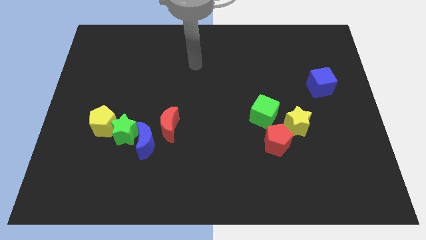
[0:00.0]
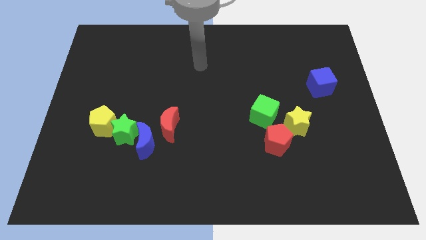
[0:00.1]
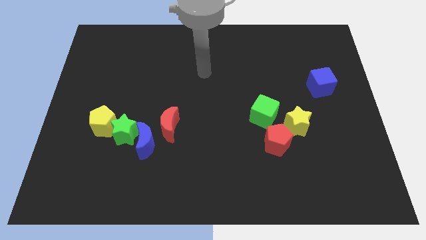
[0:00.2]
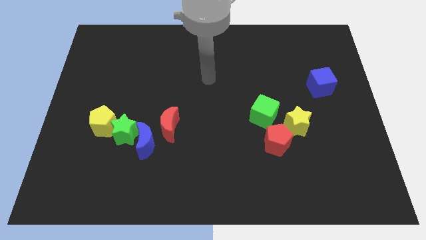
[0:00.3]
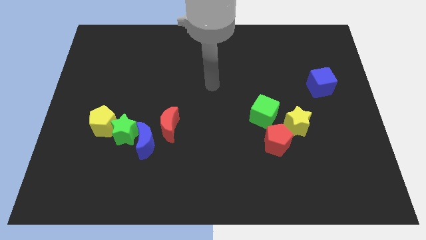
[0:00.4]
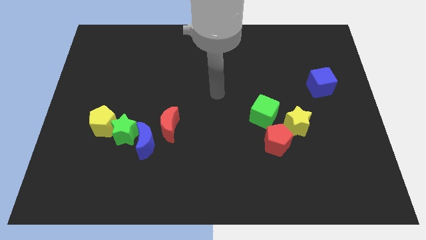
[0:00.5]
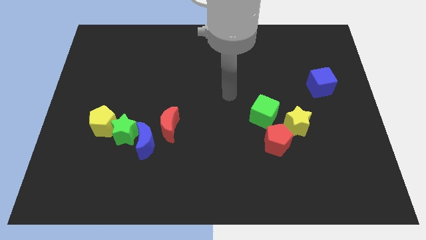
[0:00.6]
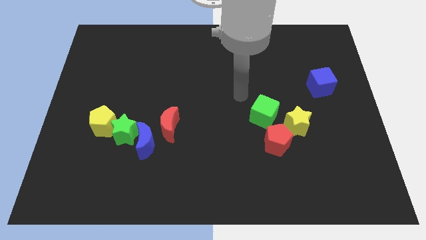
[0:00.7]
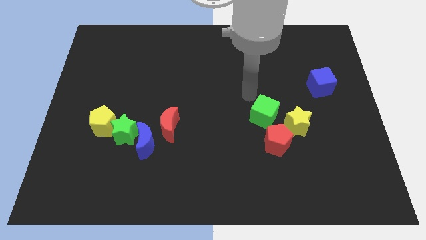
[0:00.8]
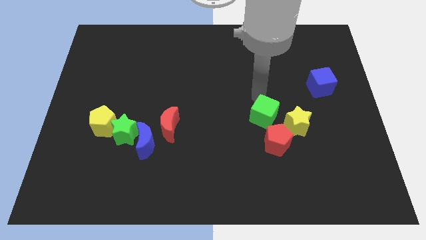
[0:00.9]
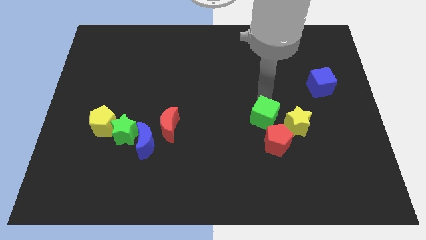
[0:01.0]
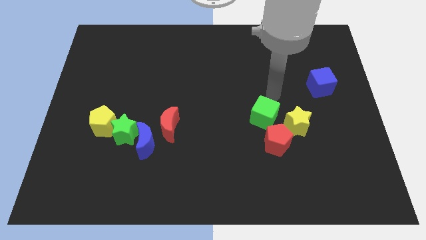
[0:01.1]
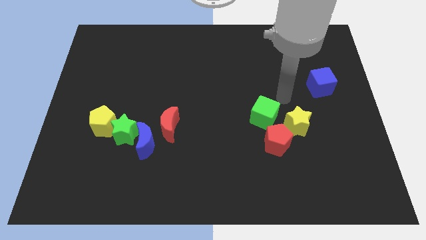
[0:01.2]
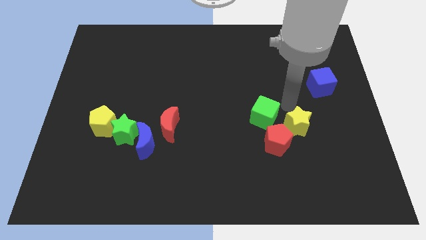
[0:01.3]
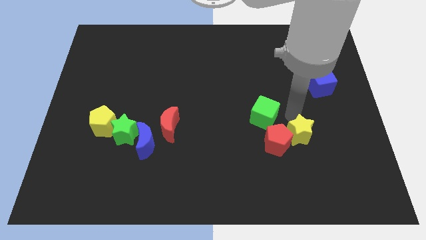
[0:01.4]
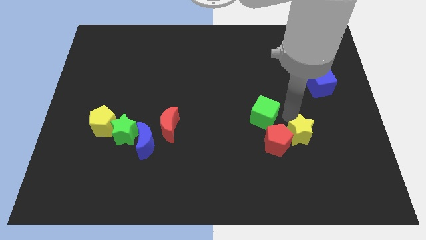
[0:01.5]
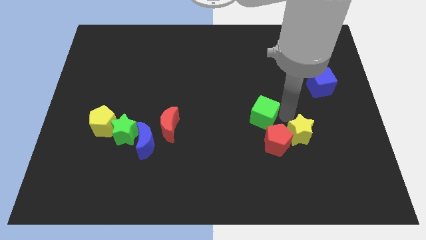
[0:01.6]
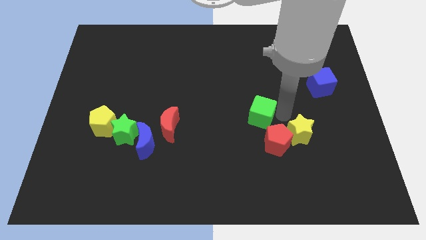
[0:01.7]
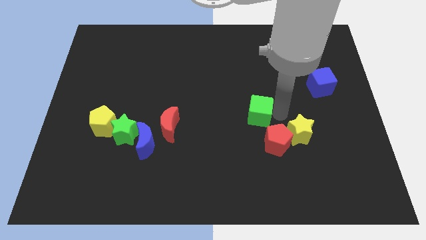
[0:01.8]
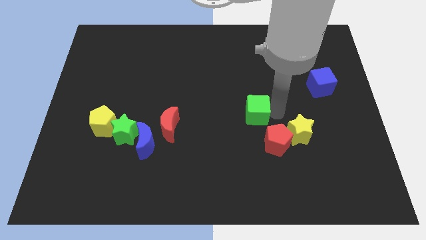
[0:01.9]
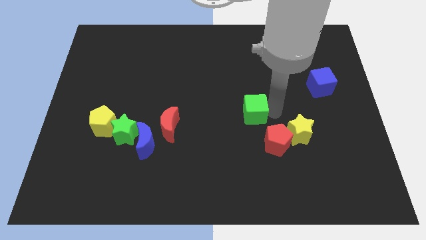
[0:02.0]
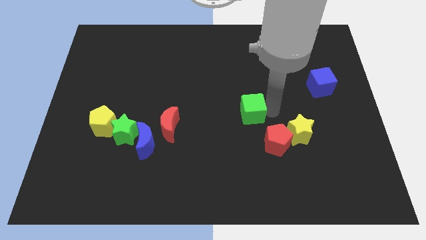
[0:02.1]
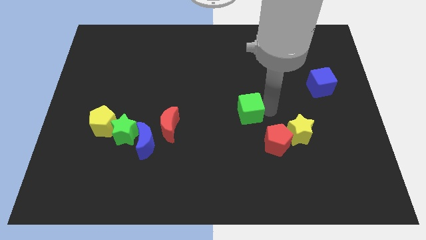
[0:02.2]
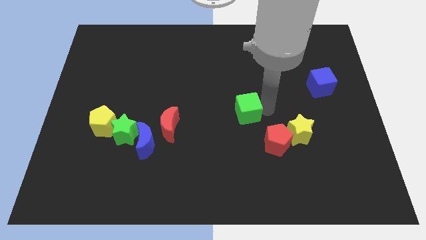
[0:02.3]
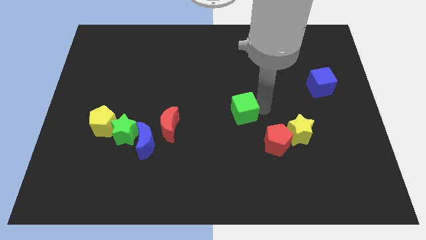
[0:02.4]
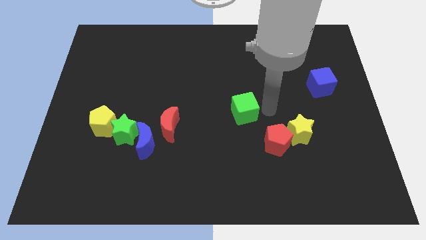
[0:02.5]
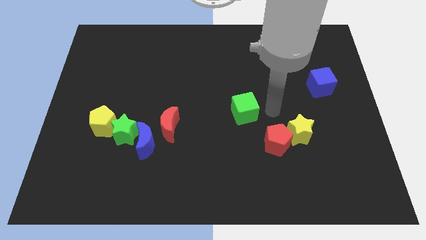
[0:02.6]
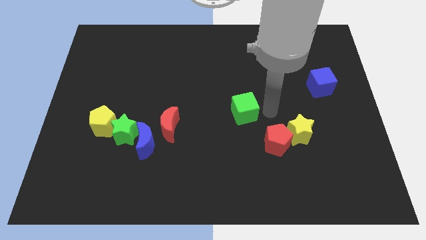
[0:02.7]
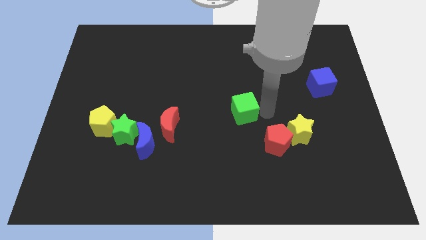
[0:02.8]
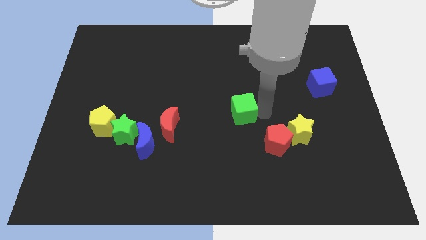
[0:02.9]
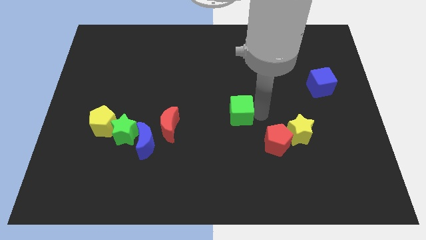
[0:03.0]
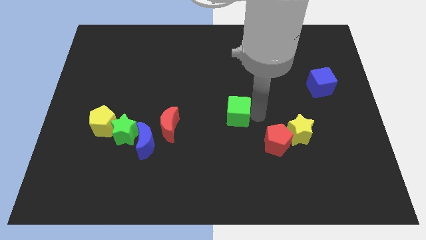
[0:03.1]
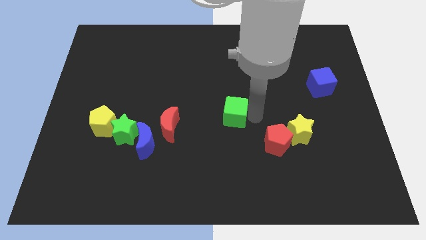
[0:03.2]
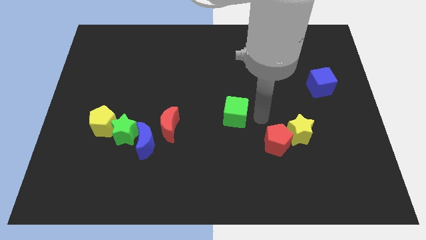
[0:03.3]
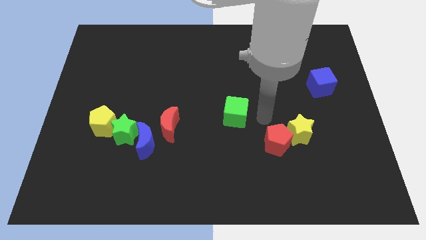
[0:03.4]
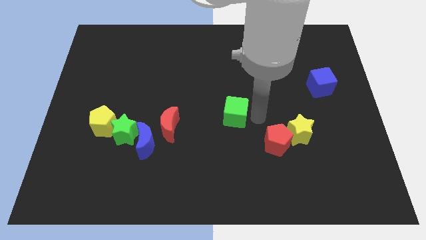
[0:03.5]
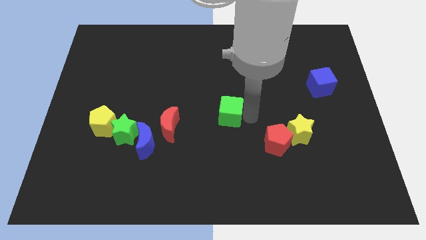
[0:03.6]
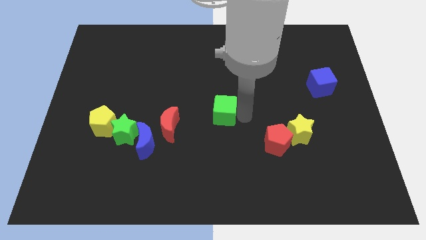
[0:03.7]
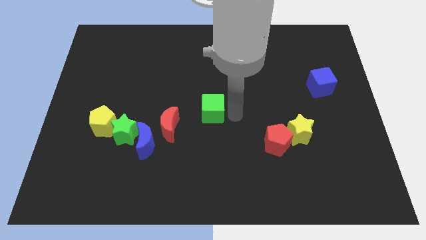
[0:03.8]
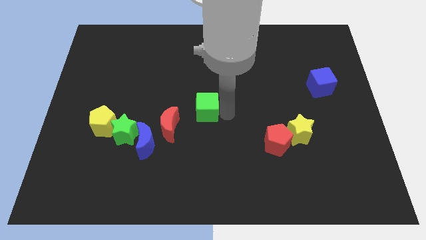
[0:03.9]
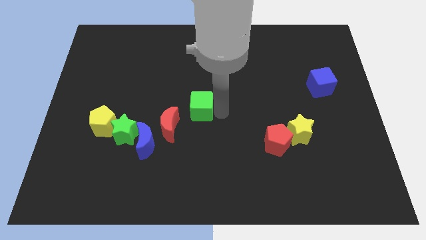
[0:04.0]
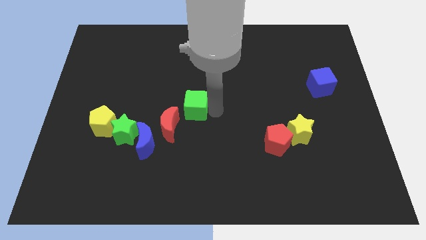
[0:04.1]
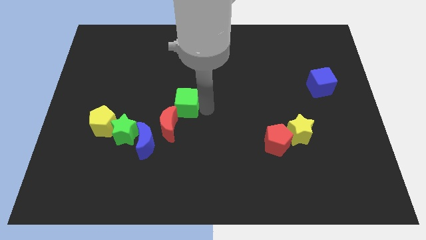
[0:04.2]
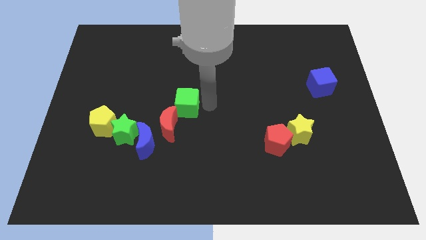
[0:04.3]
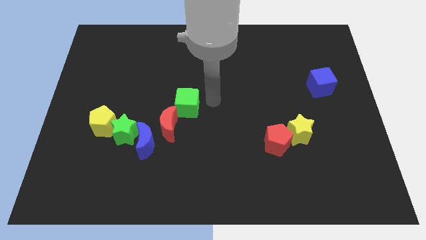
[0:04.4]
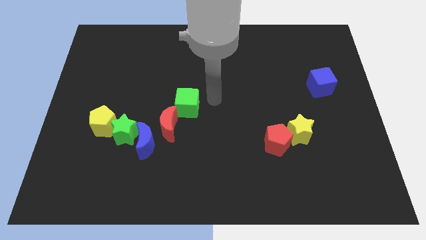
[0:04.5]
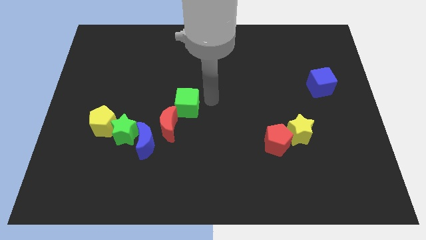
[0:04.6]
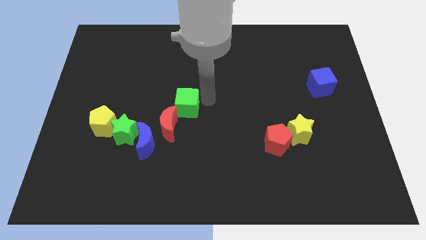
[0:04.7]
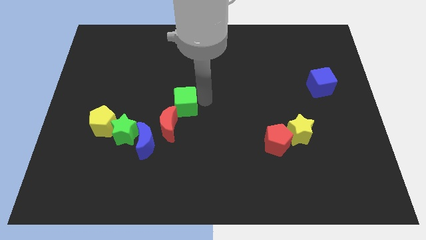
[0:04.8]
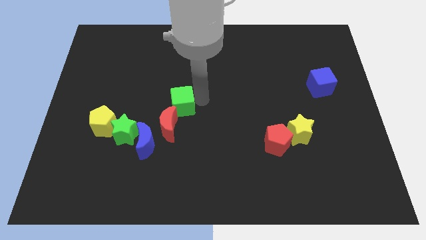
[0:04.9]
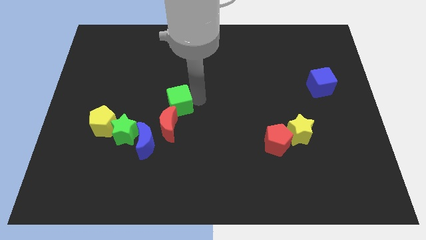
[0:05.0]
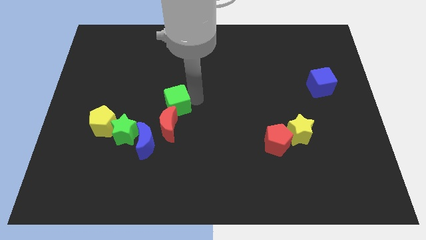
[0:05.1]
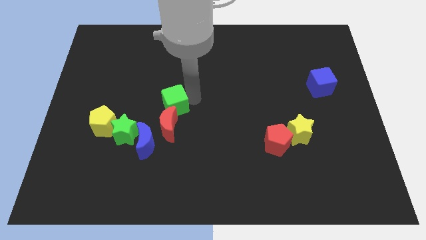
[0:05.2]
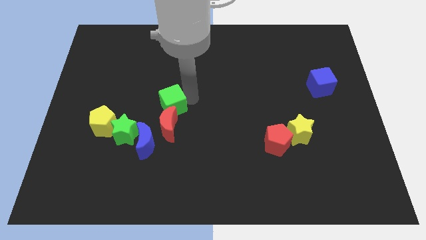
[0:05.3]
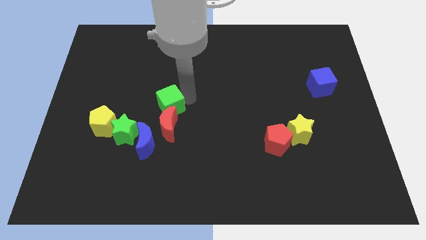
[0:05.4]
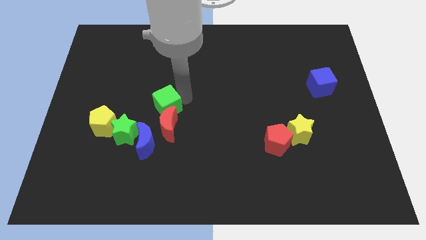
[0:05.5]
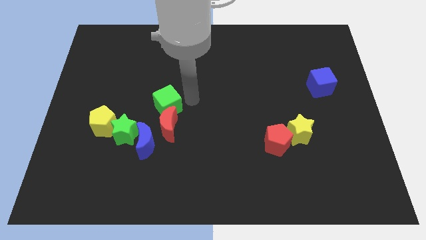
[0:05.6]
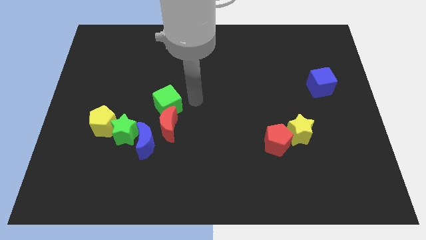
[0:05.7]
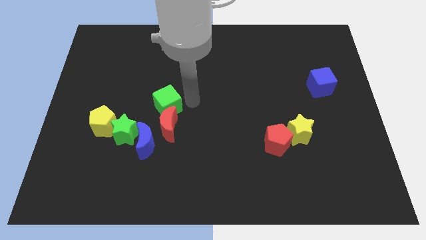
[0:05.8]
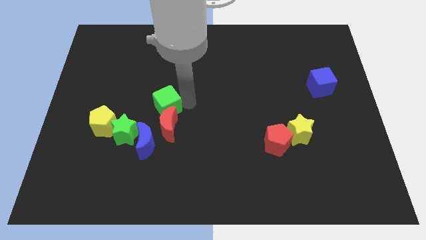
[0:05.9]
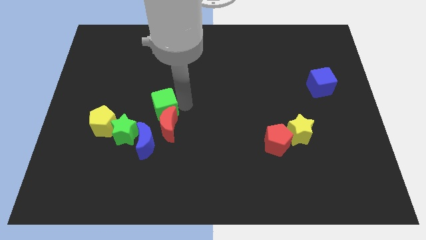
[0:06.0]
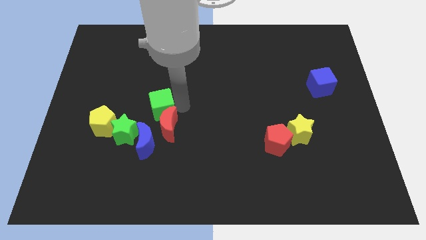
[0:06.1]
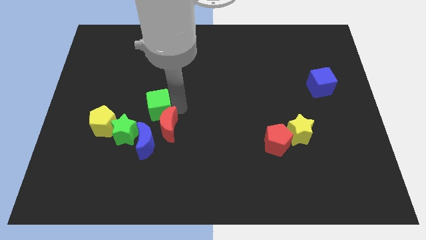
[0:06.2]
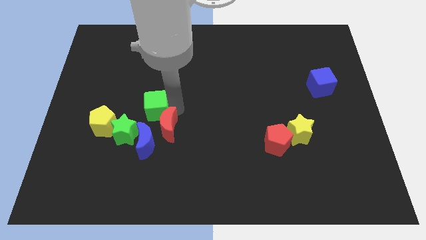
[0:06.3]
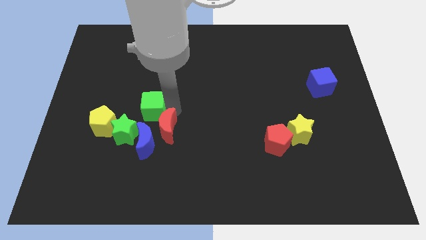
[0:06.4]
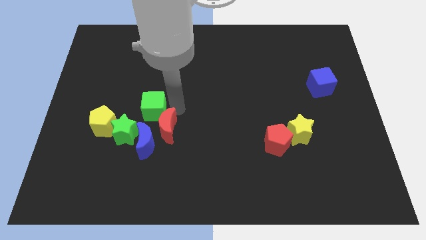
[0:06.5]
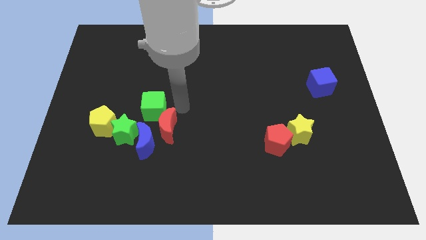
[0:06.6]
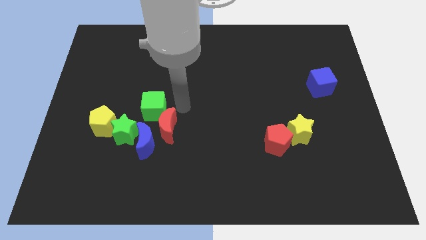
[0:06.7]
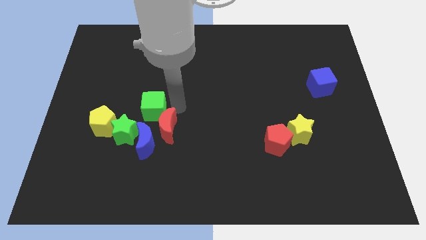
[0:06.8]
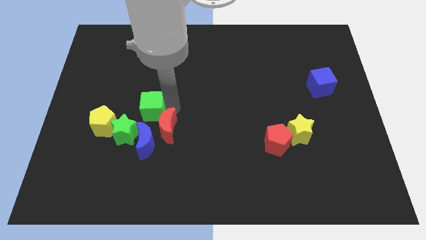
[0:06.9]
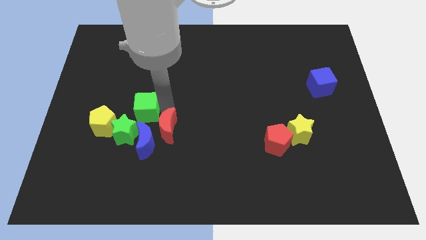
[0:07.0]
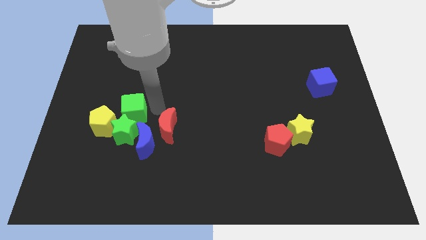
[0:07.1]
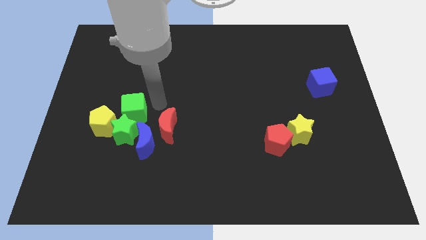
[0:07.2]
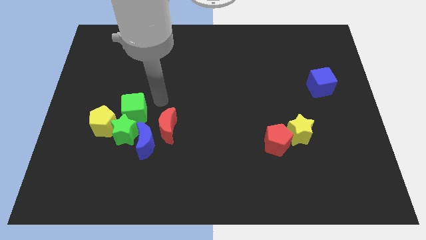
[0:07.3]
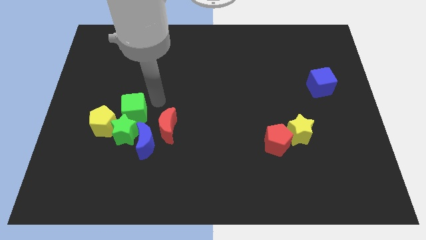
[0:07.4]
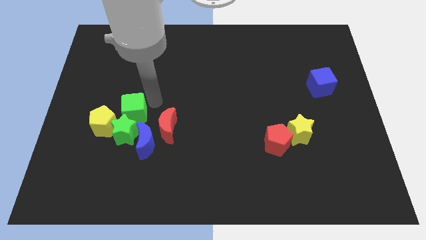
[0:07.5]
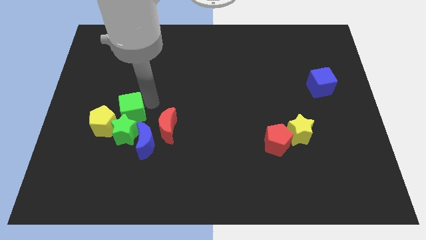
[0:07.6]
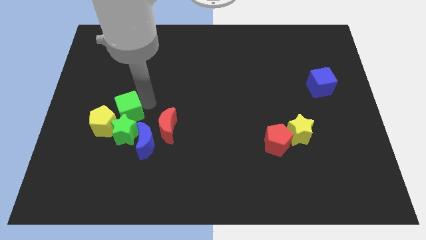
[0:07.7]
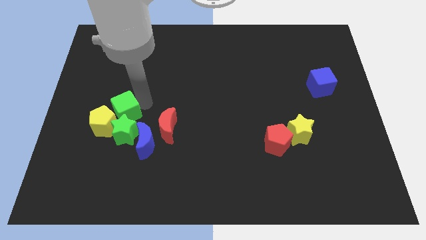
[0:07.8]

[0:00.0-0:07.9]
push the green cube towards the yellow pentagon
